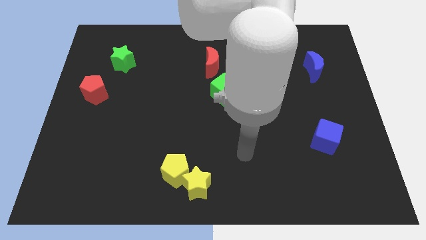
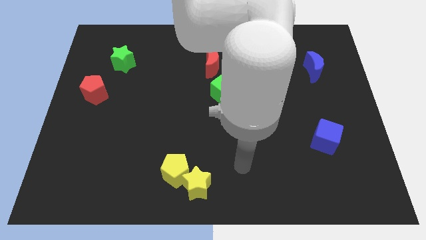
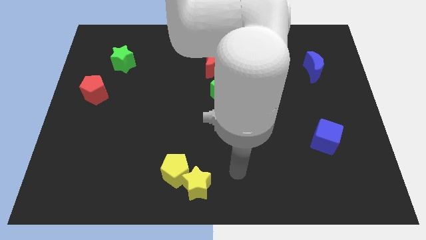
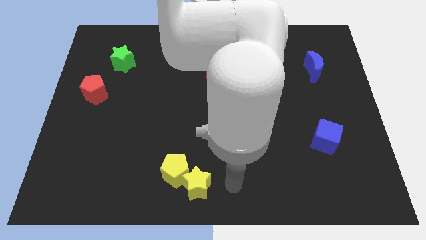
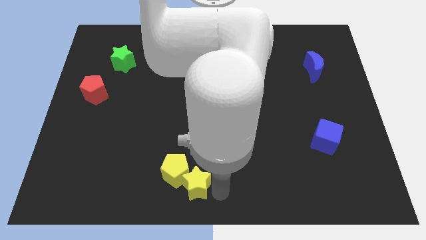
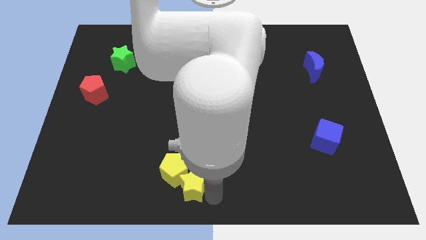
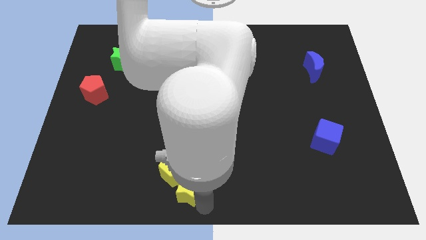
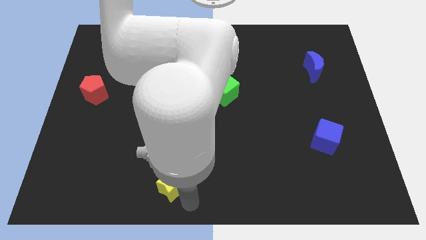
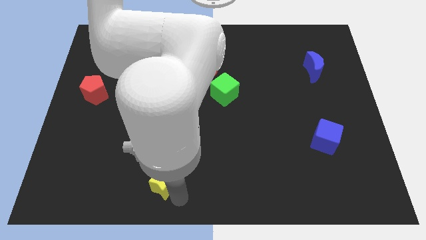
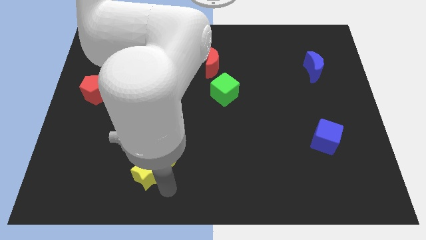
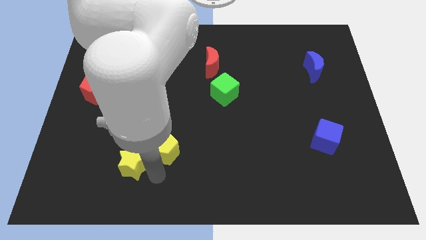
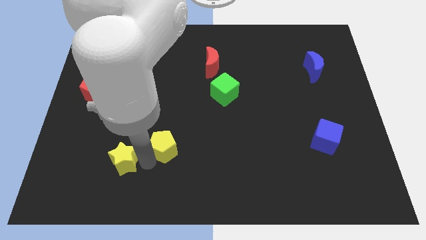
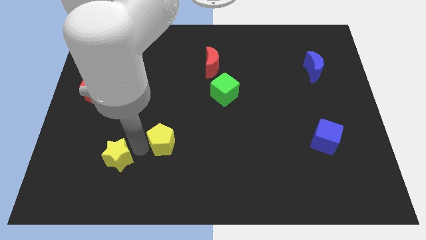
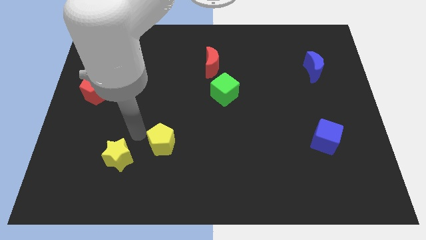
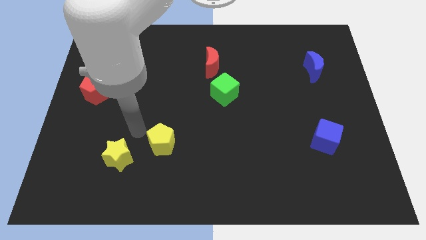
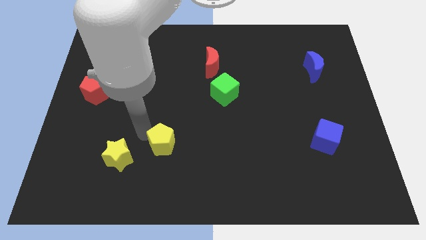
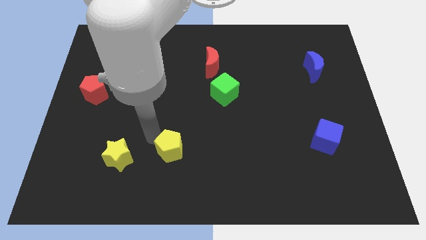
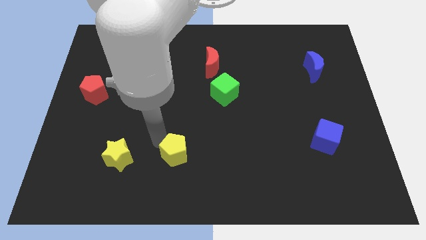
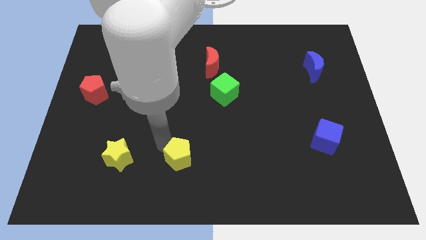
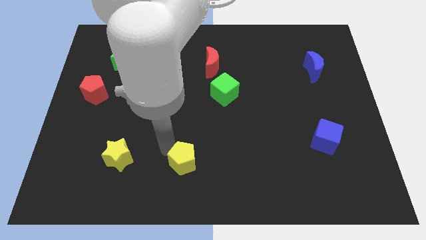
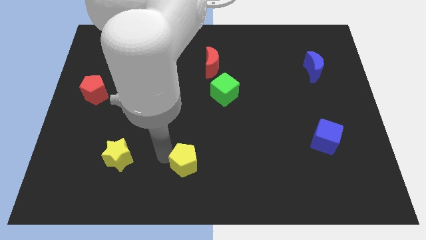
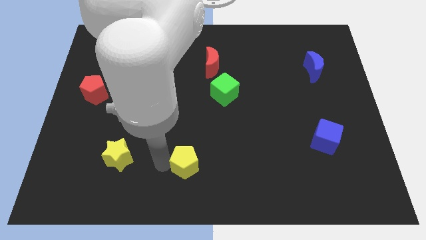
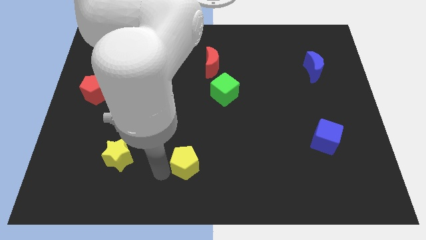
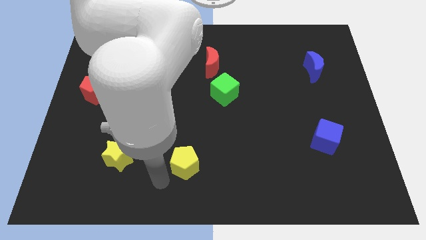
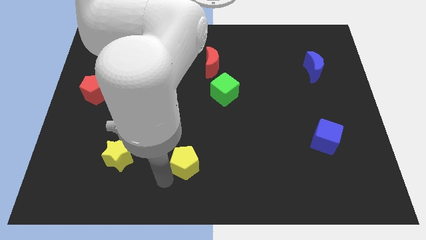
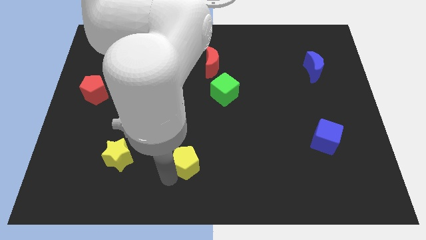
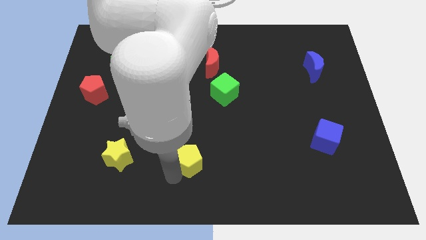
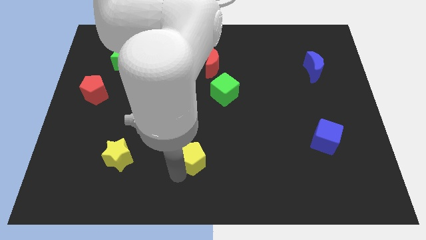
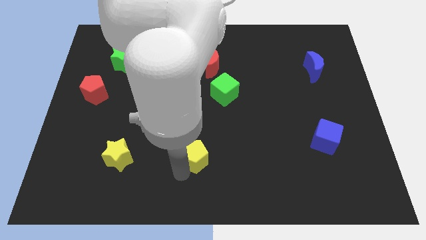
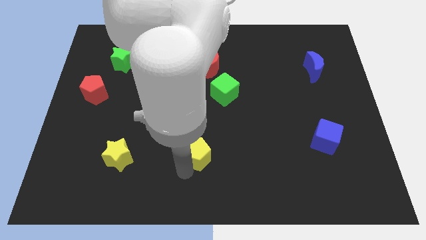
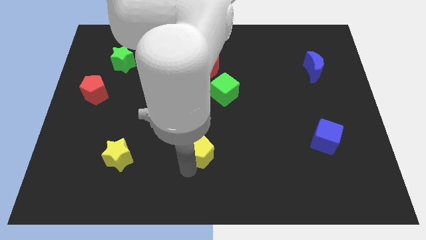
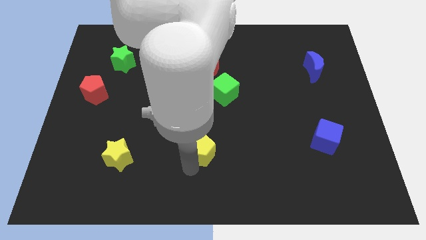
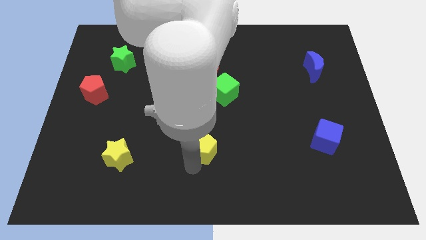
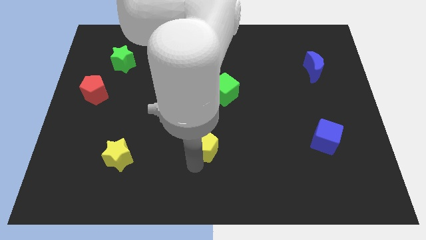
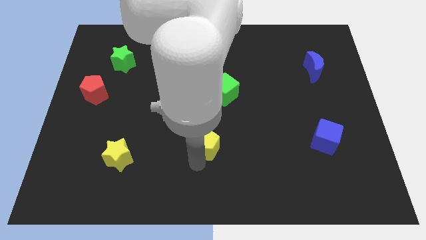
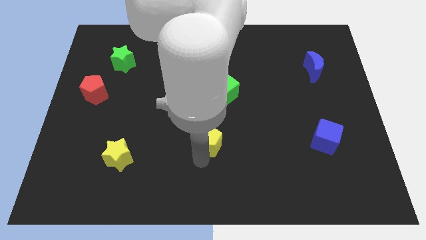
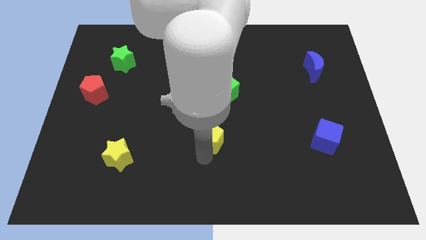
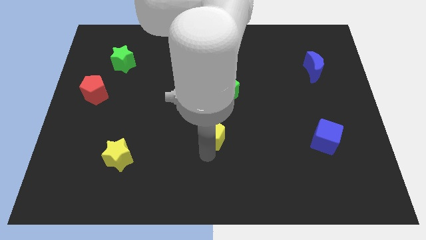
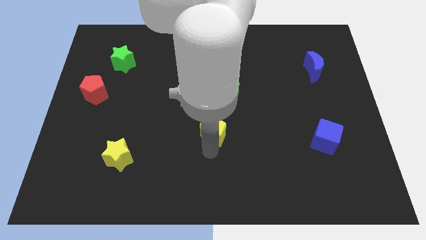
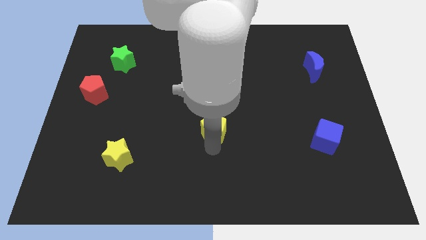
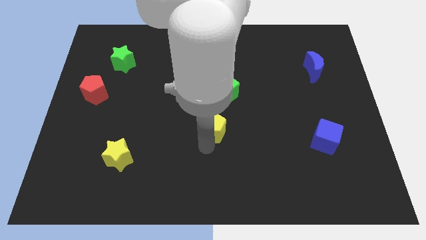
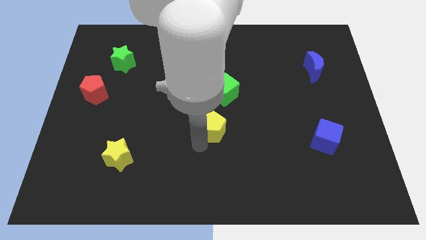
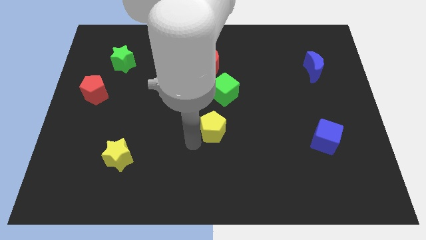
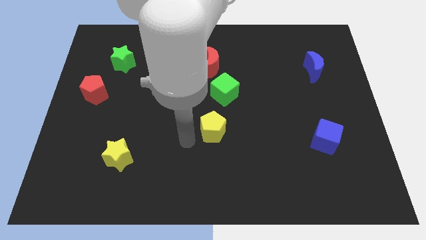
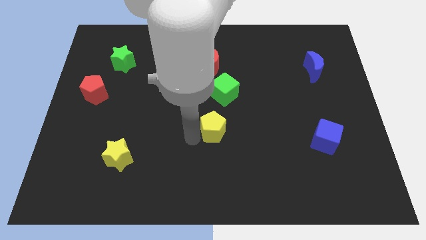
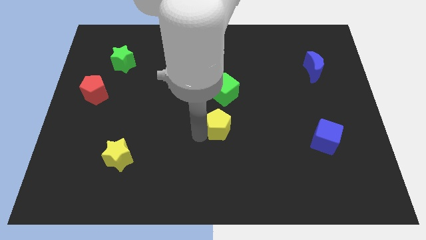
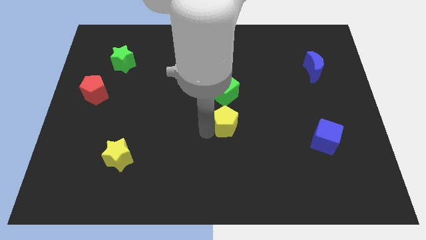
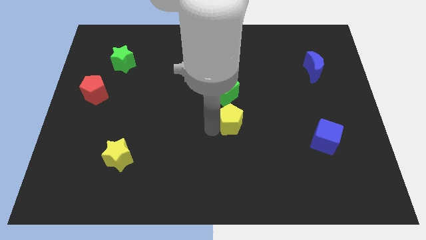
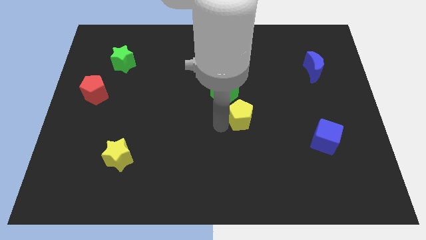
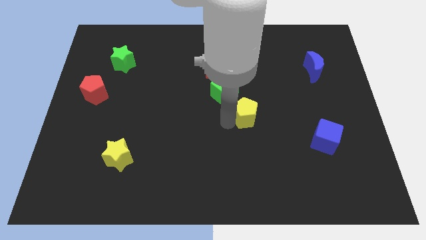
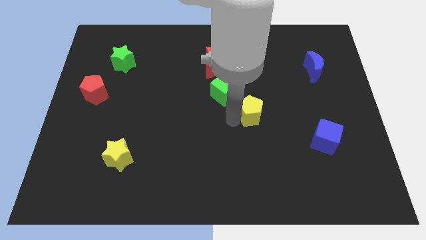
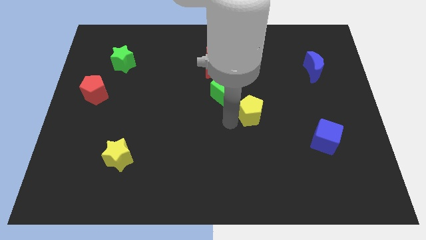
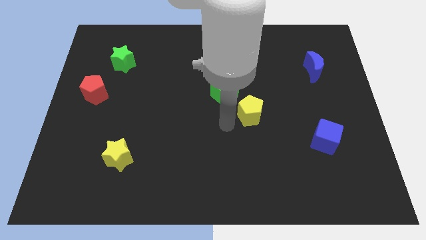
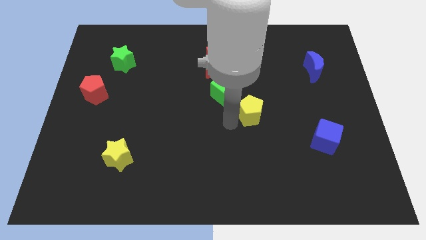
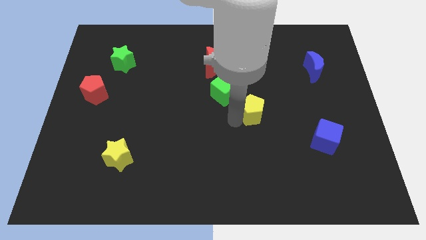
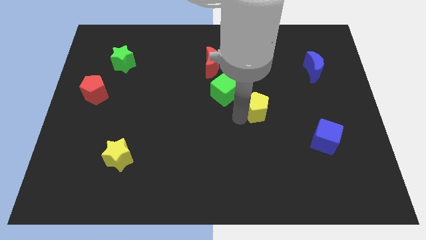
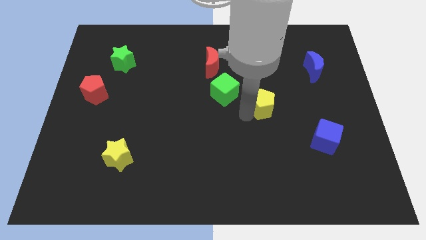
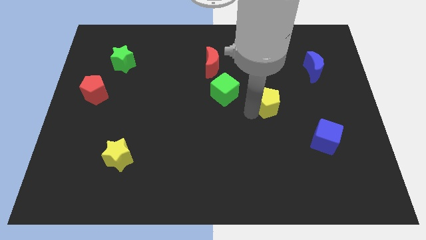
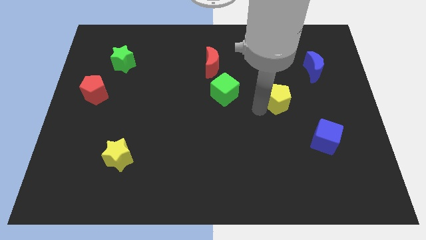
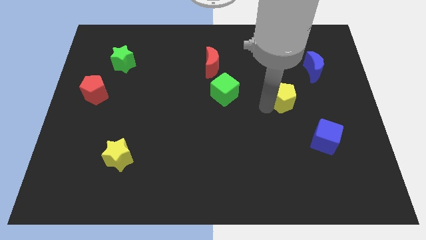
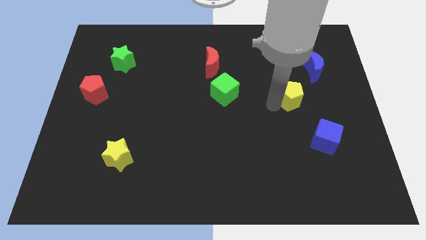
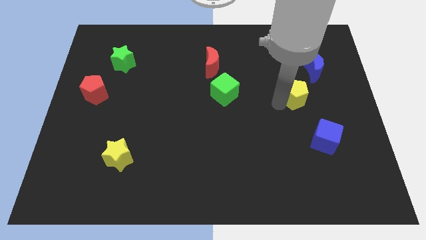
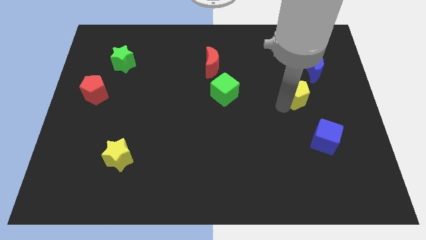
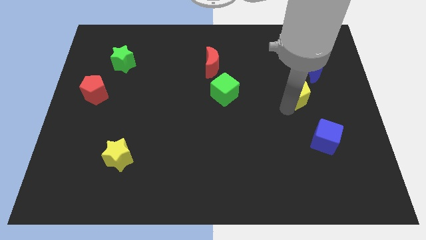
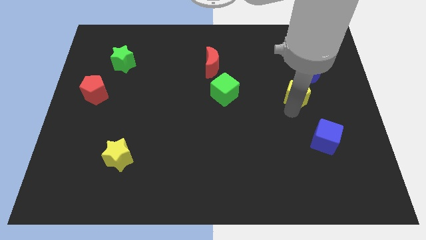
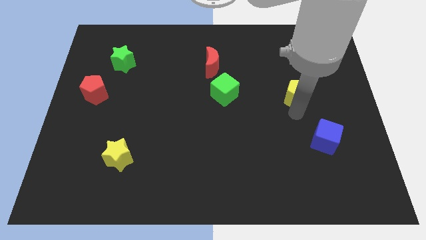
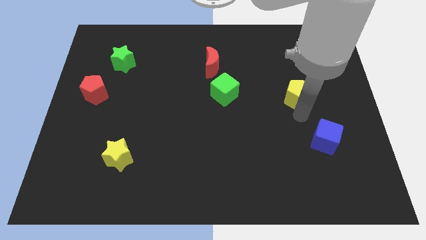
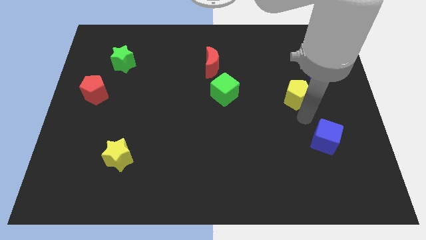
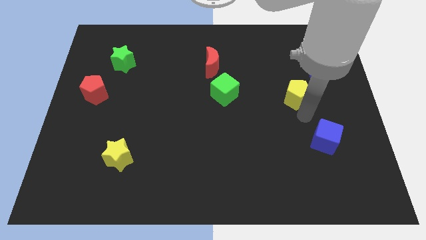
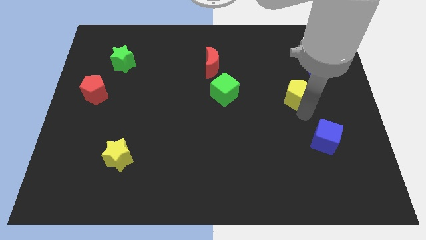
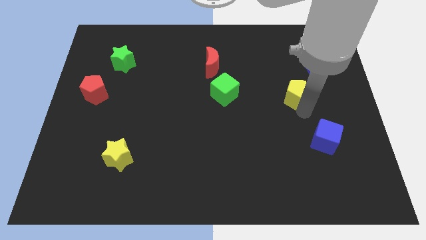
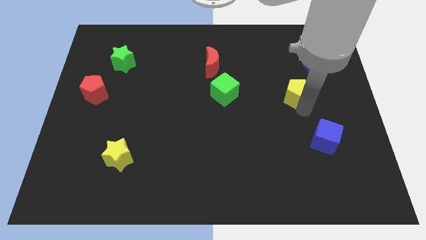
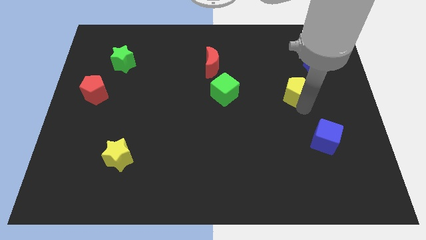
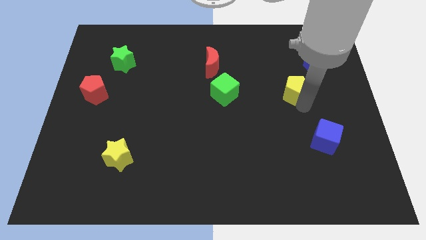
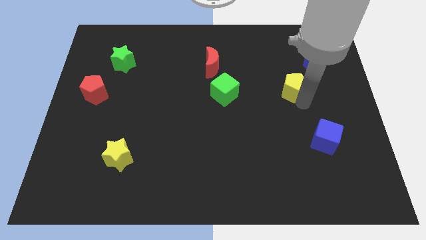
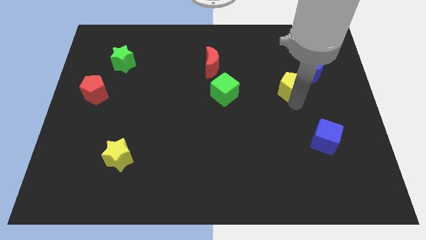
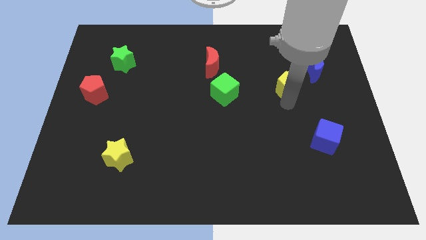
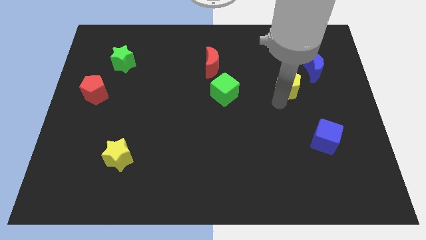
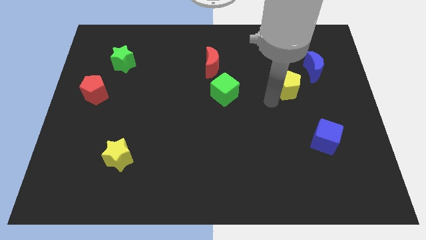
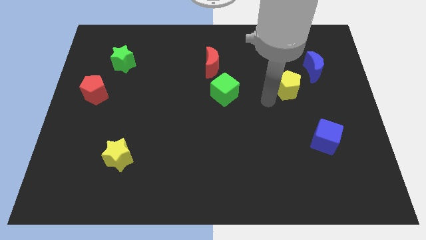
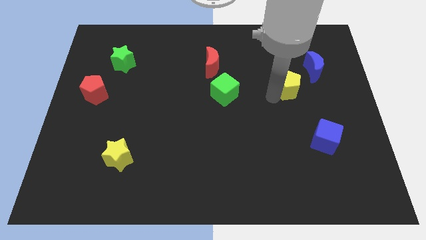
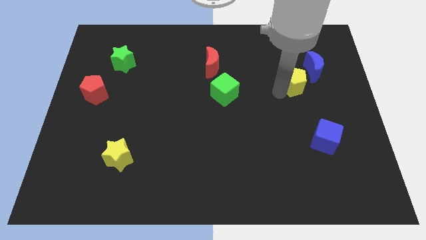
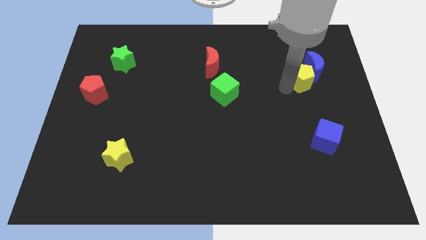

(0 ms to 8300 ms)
push the yellow pentagon next to the blue moon
